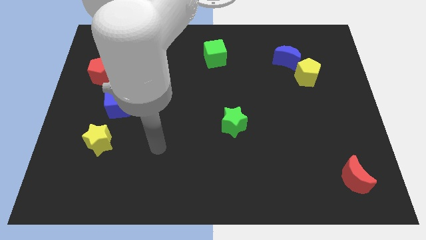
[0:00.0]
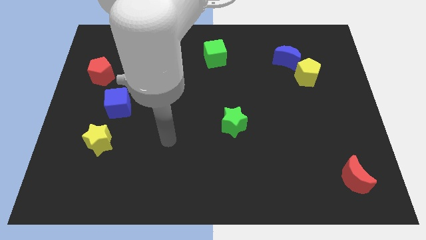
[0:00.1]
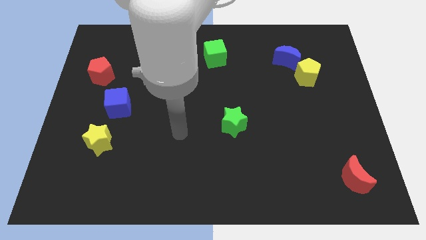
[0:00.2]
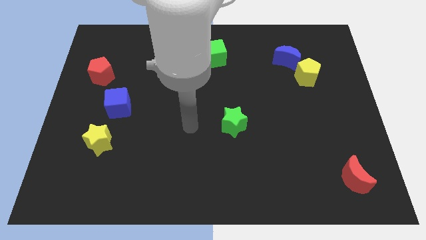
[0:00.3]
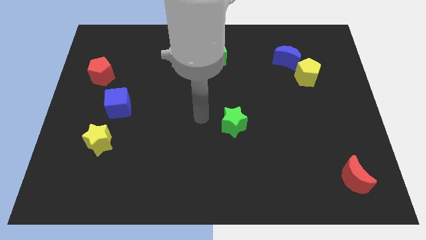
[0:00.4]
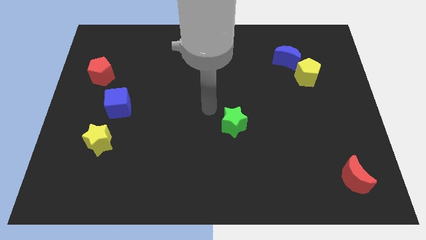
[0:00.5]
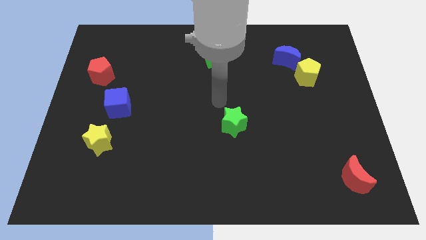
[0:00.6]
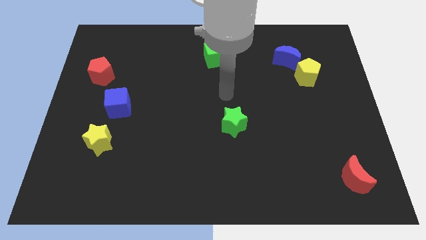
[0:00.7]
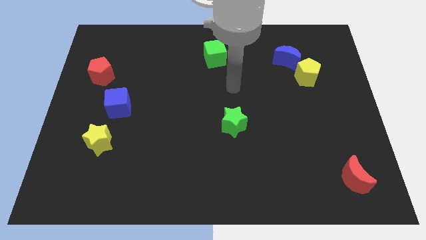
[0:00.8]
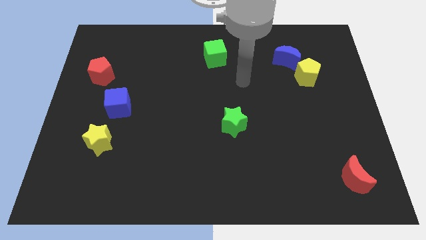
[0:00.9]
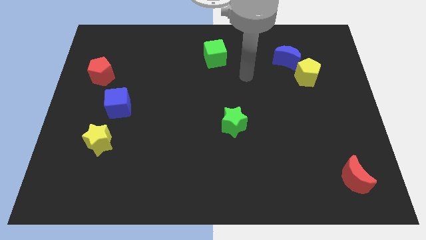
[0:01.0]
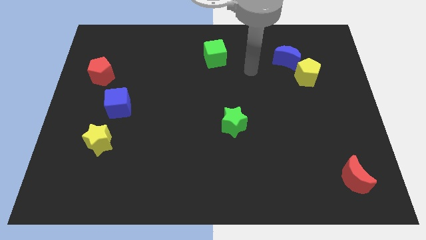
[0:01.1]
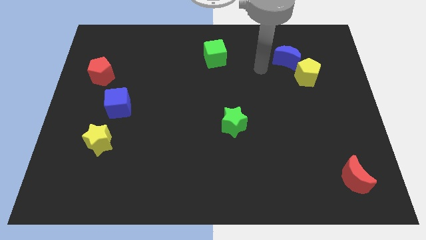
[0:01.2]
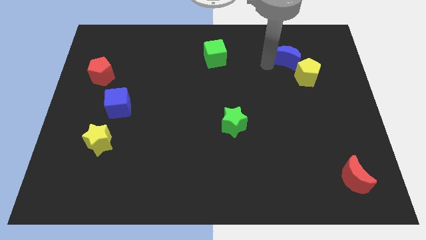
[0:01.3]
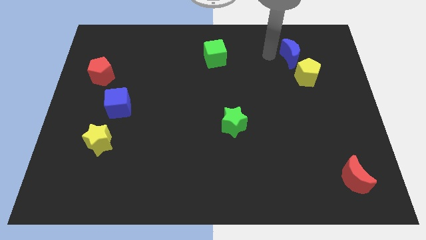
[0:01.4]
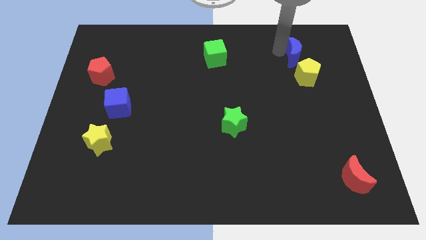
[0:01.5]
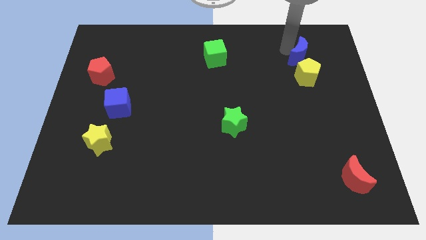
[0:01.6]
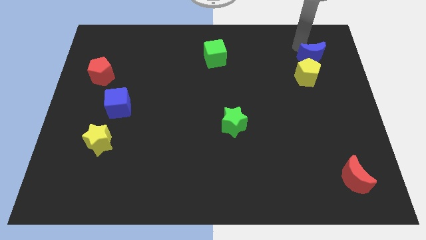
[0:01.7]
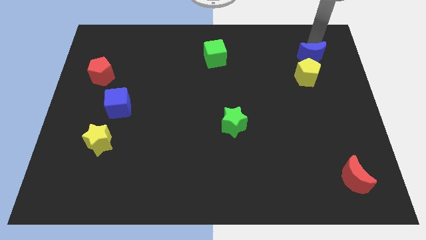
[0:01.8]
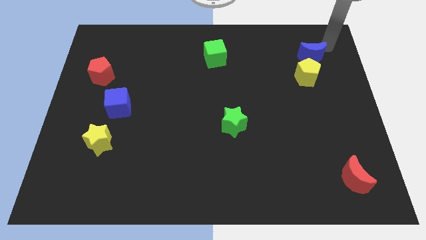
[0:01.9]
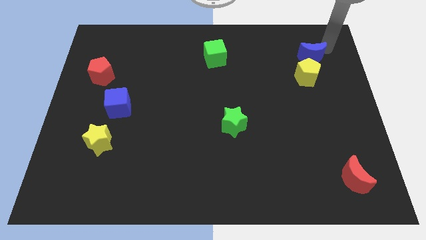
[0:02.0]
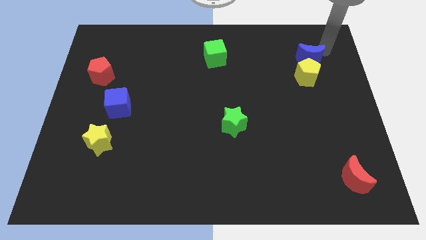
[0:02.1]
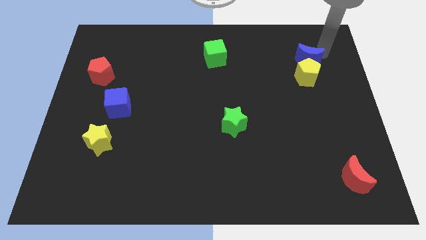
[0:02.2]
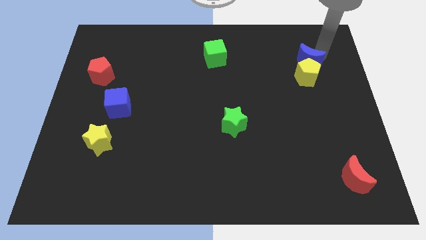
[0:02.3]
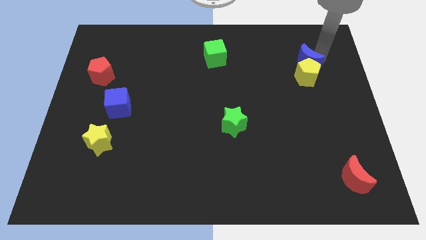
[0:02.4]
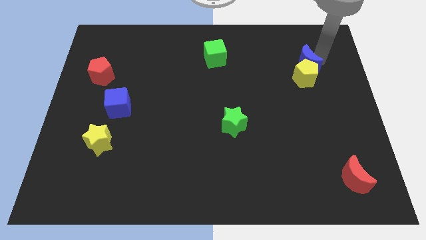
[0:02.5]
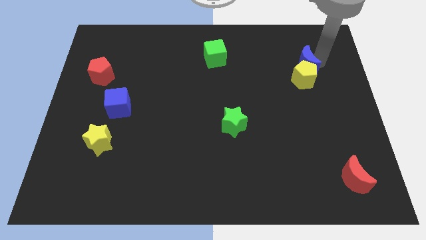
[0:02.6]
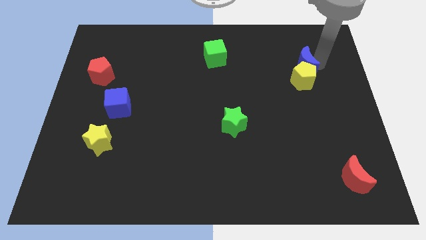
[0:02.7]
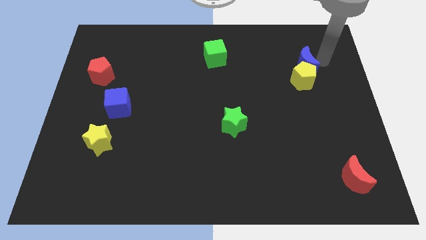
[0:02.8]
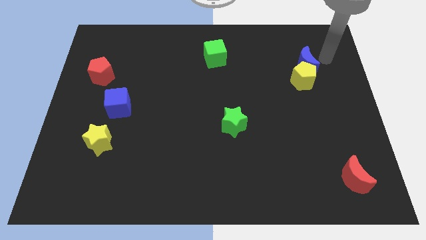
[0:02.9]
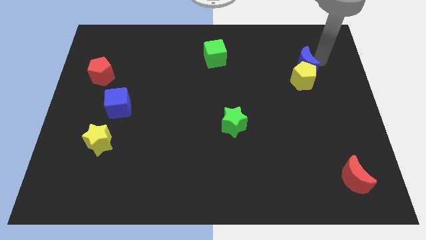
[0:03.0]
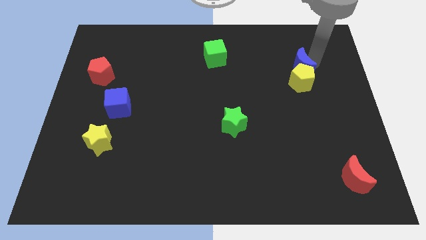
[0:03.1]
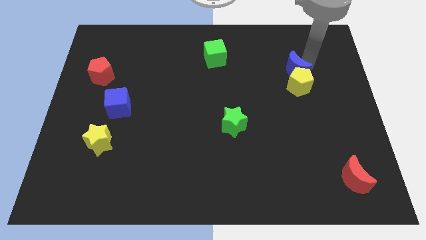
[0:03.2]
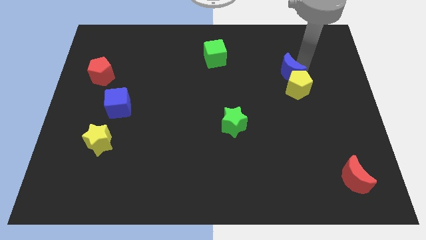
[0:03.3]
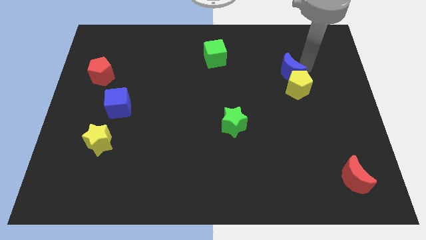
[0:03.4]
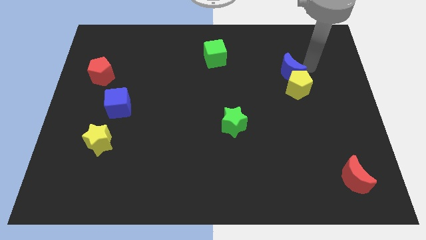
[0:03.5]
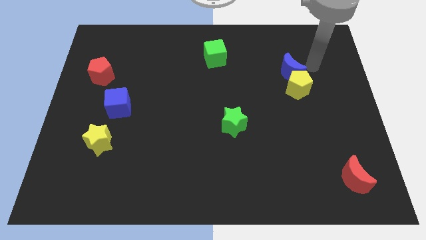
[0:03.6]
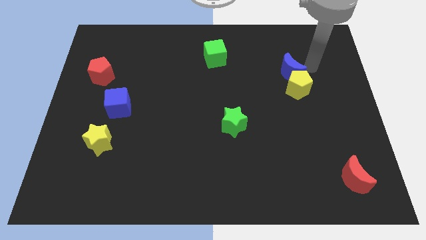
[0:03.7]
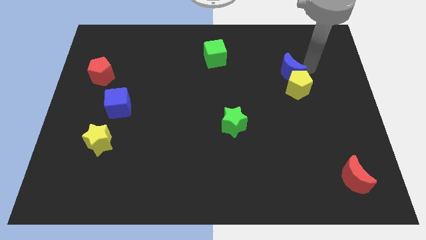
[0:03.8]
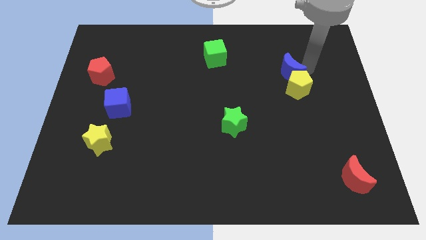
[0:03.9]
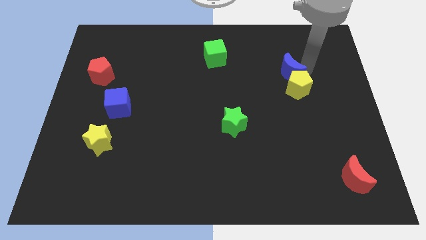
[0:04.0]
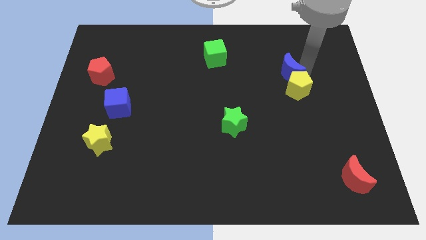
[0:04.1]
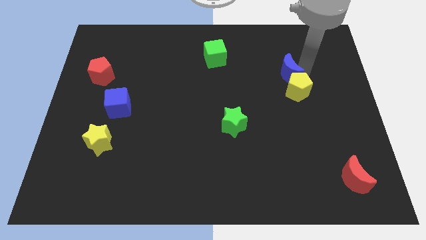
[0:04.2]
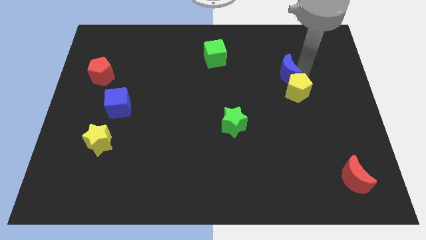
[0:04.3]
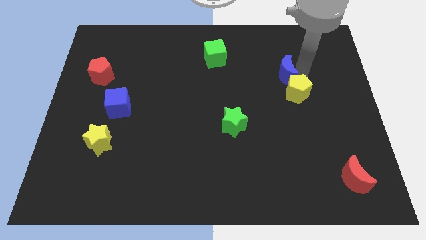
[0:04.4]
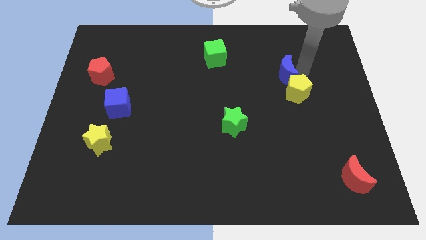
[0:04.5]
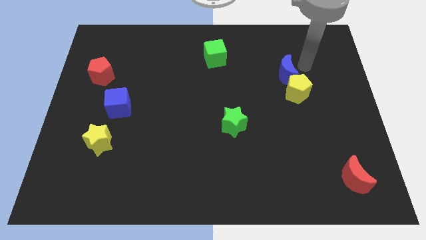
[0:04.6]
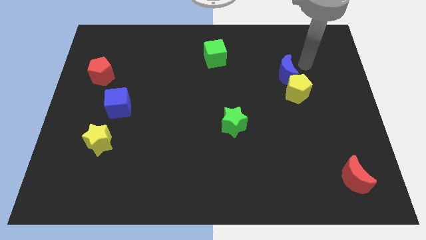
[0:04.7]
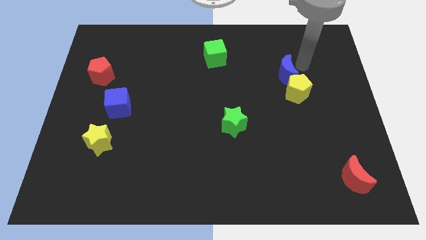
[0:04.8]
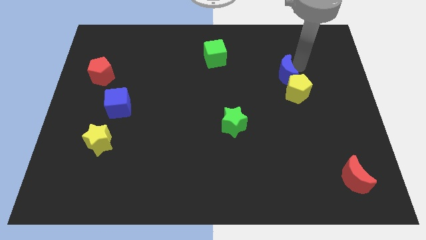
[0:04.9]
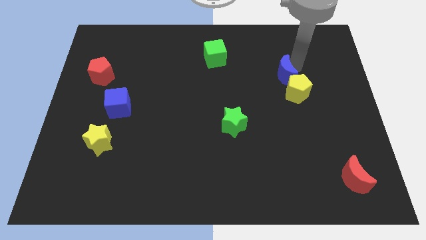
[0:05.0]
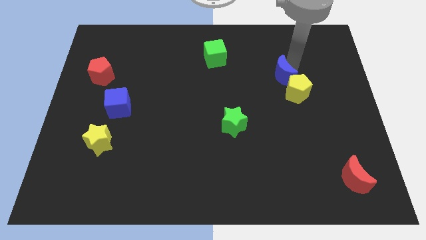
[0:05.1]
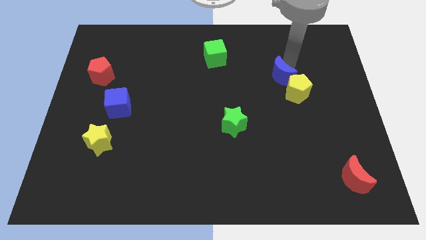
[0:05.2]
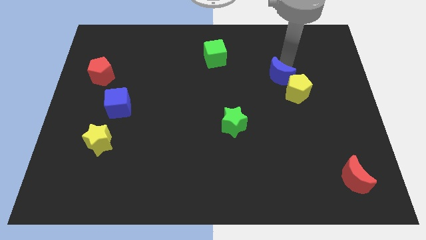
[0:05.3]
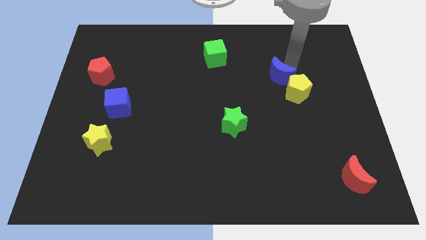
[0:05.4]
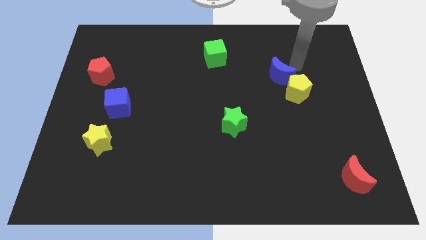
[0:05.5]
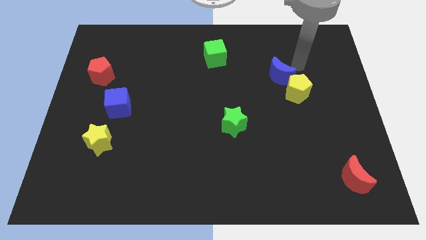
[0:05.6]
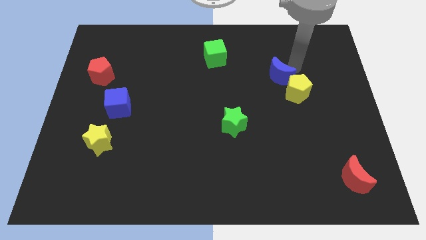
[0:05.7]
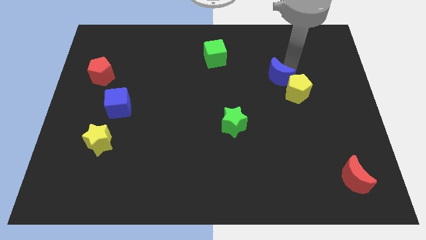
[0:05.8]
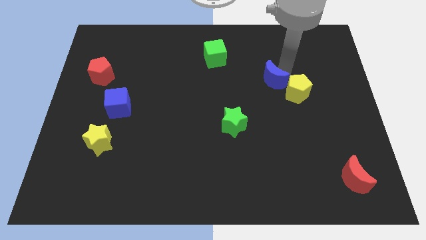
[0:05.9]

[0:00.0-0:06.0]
slide the blue moon slightly downwards and left

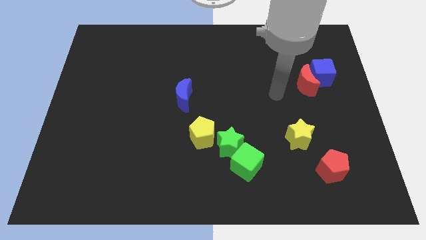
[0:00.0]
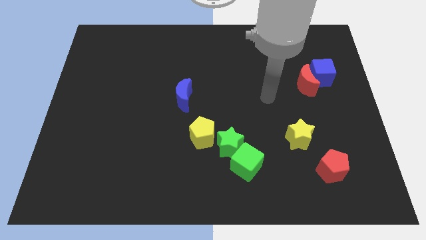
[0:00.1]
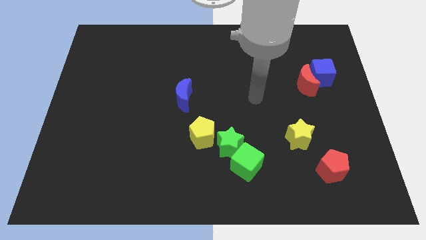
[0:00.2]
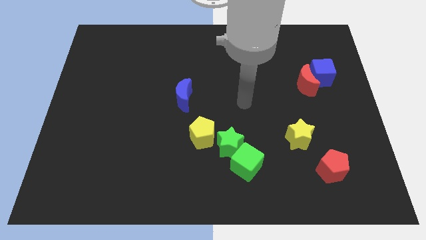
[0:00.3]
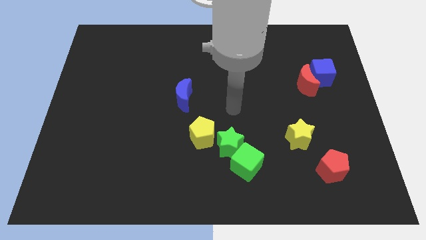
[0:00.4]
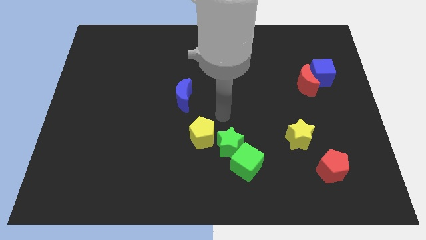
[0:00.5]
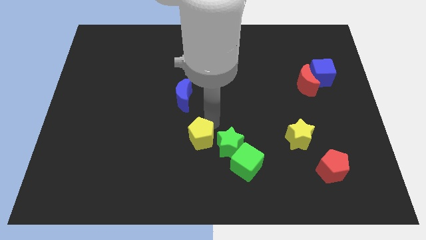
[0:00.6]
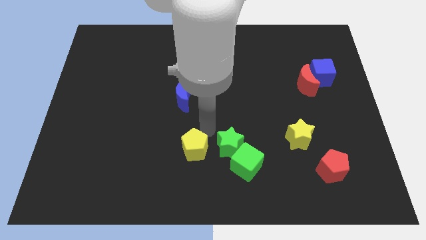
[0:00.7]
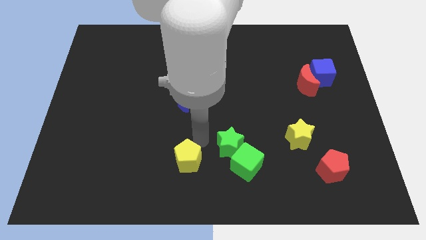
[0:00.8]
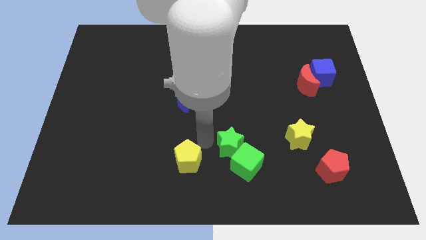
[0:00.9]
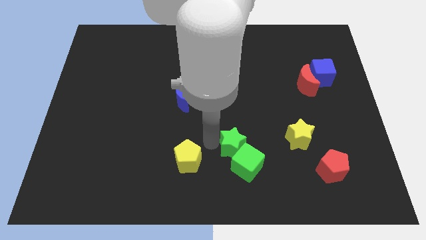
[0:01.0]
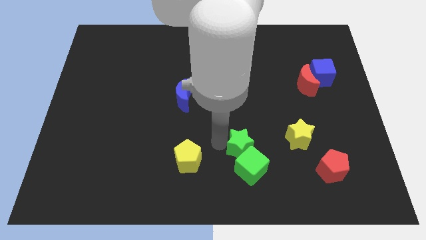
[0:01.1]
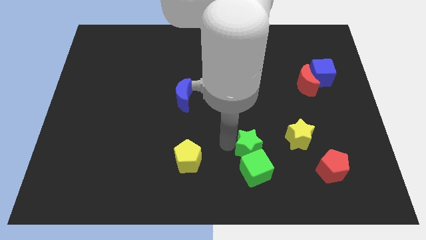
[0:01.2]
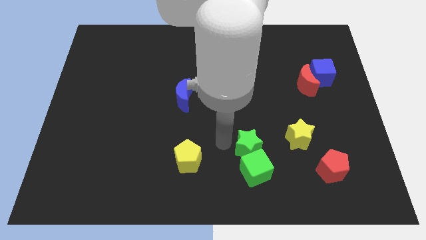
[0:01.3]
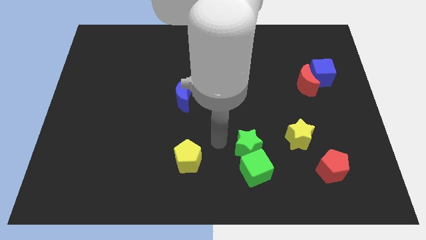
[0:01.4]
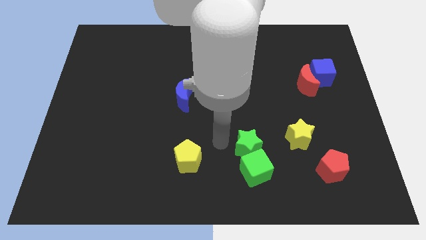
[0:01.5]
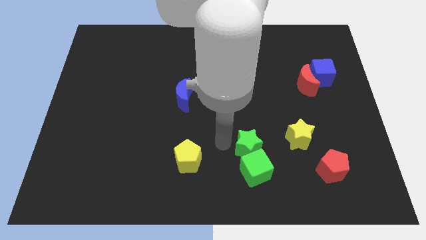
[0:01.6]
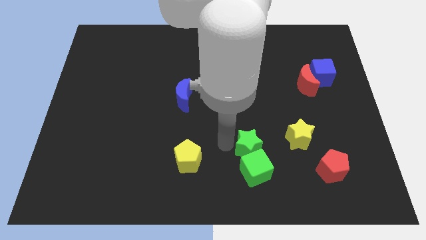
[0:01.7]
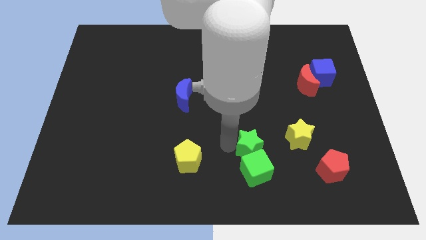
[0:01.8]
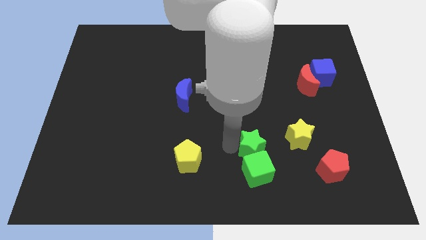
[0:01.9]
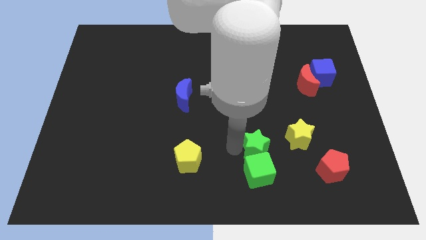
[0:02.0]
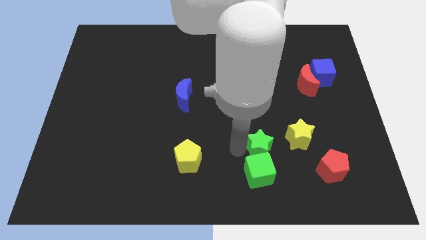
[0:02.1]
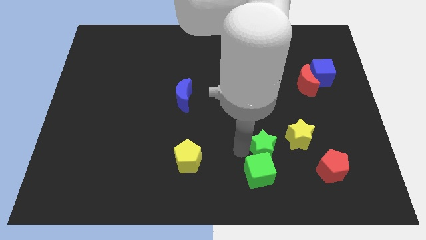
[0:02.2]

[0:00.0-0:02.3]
push the green star to the right slightly
